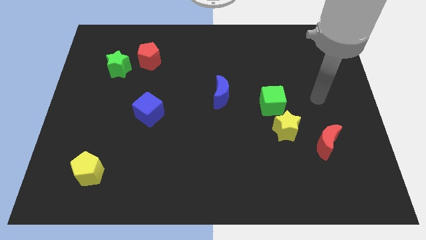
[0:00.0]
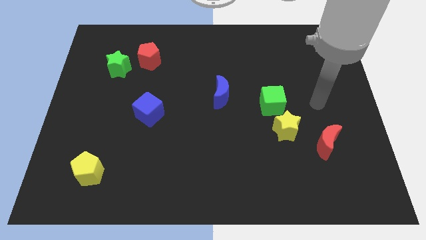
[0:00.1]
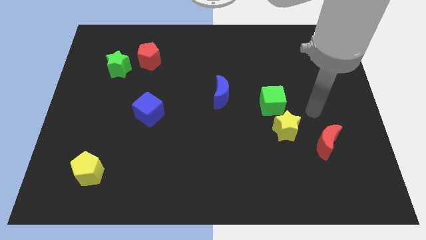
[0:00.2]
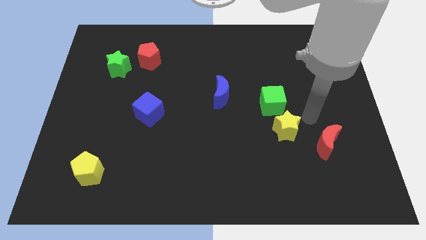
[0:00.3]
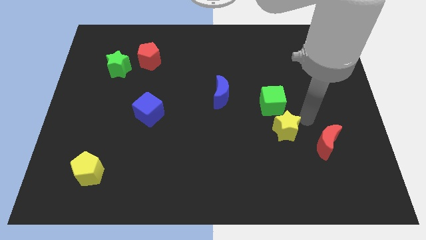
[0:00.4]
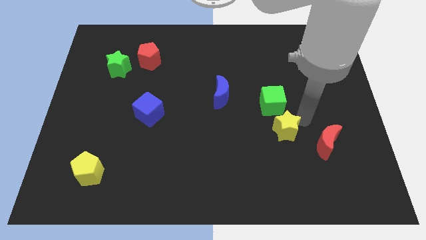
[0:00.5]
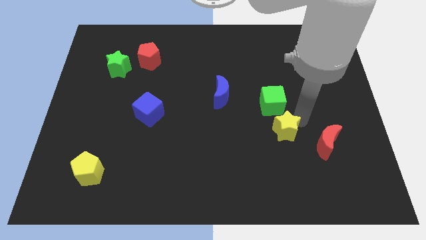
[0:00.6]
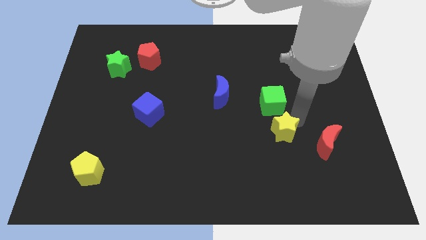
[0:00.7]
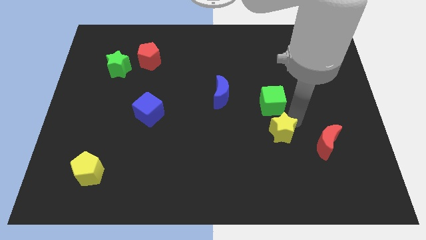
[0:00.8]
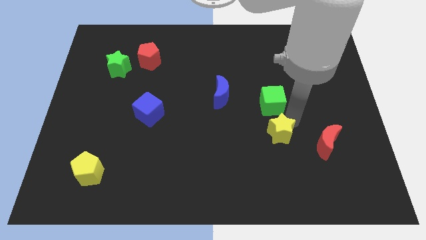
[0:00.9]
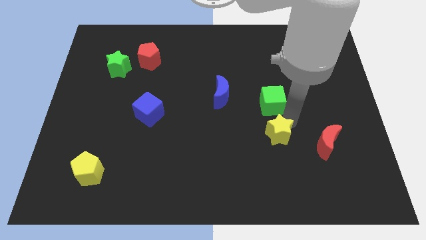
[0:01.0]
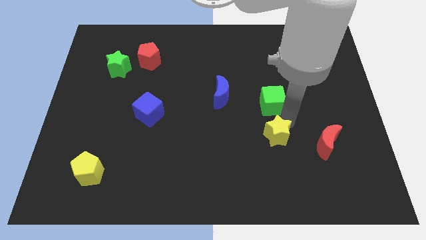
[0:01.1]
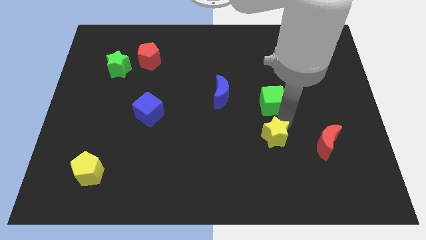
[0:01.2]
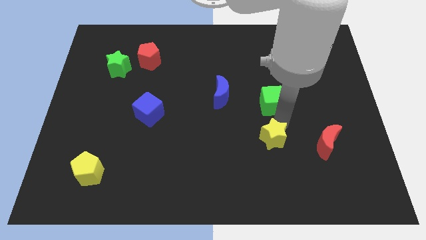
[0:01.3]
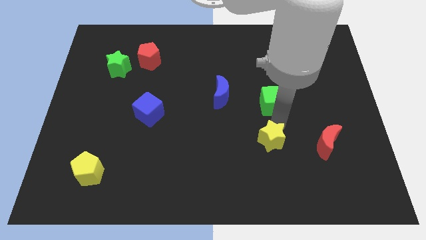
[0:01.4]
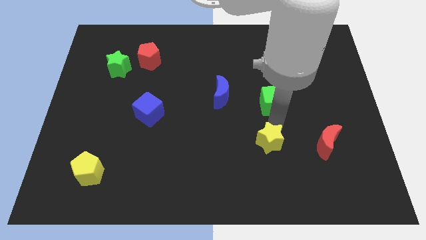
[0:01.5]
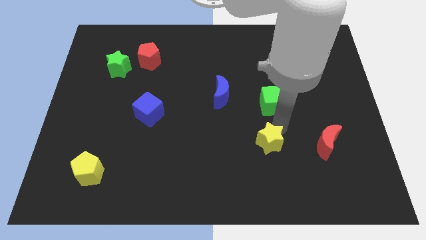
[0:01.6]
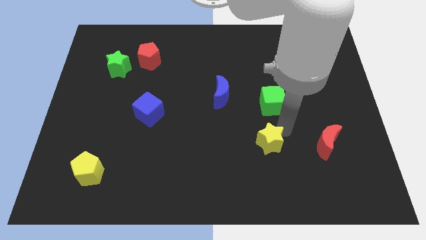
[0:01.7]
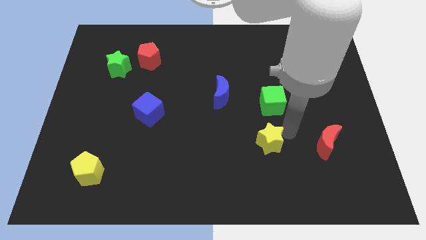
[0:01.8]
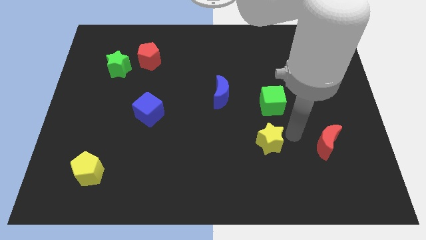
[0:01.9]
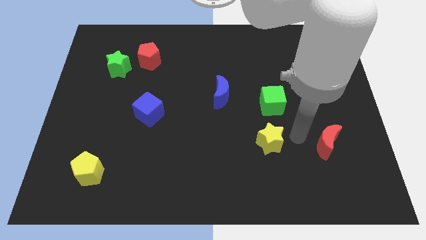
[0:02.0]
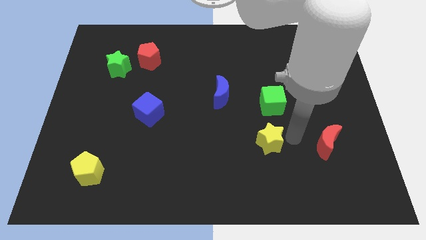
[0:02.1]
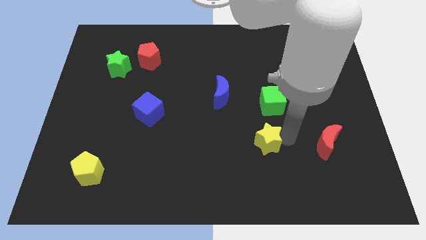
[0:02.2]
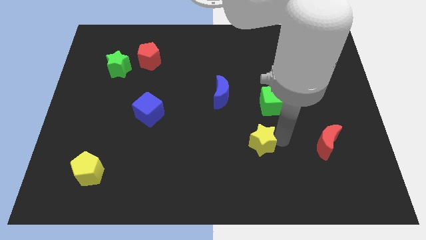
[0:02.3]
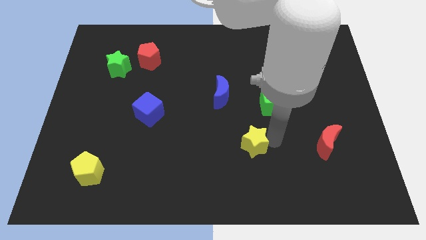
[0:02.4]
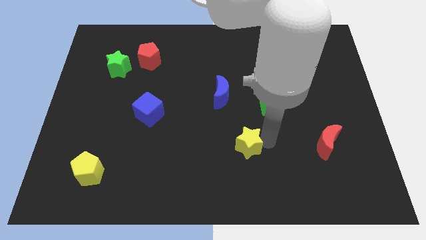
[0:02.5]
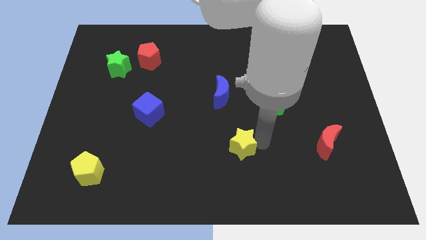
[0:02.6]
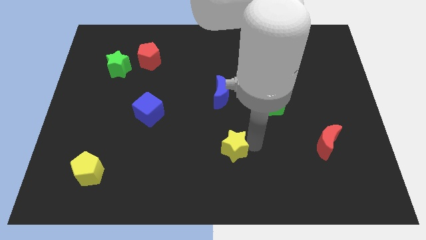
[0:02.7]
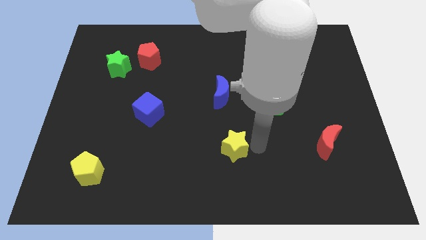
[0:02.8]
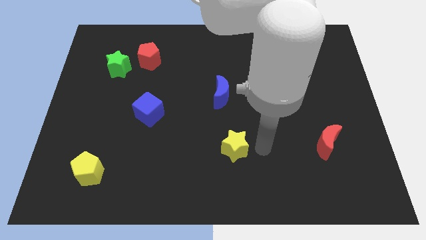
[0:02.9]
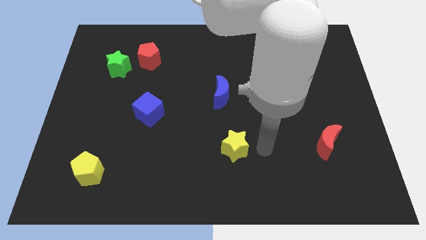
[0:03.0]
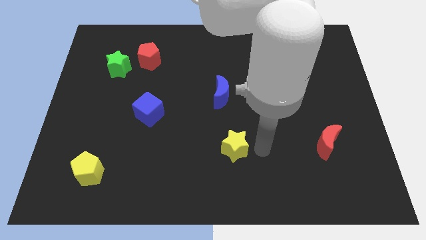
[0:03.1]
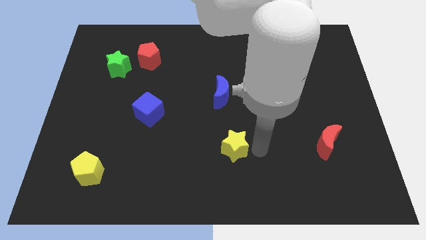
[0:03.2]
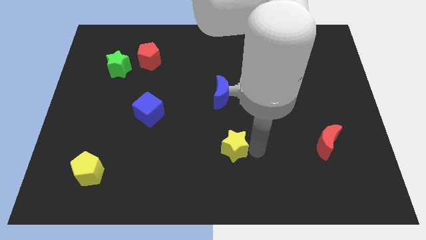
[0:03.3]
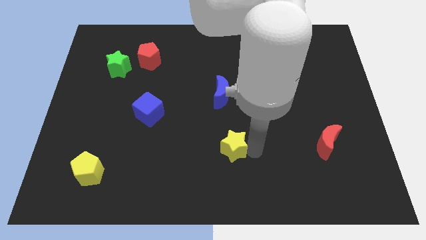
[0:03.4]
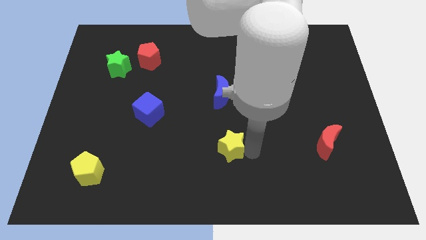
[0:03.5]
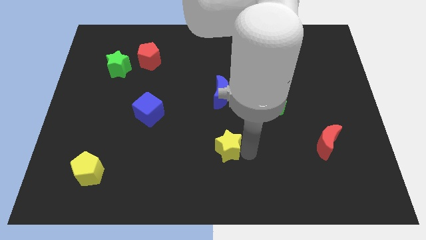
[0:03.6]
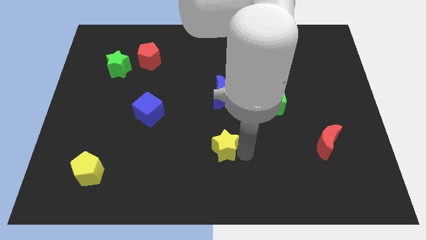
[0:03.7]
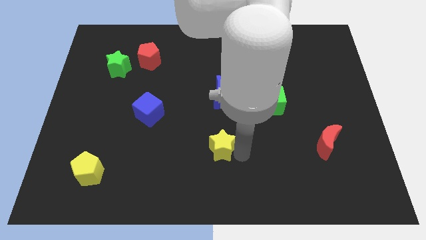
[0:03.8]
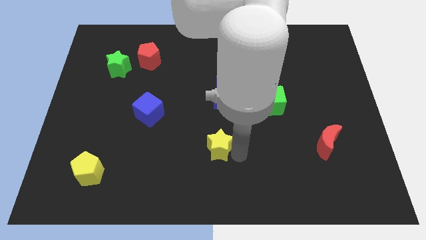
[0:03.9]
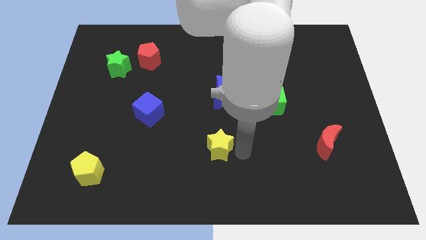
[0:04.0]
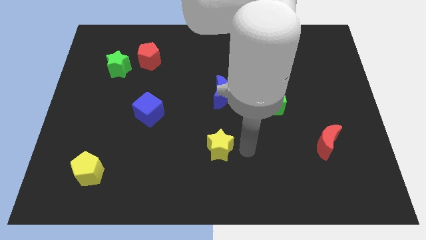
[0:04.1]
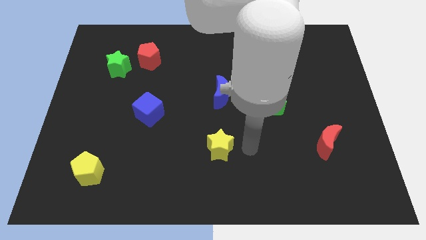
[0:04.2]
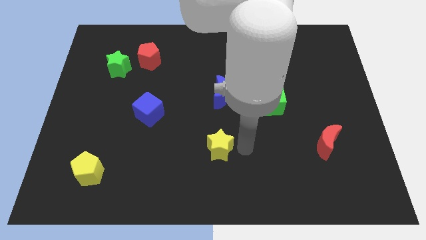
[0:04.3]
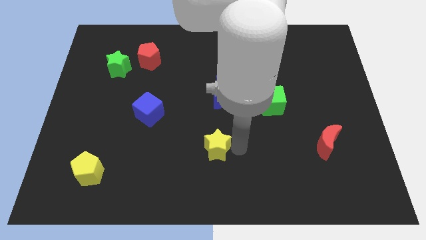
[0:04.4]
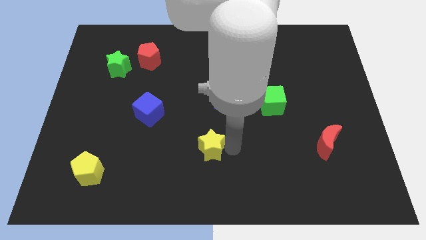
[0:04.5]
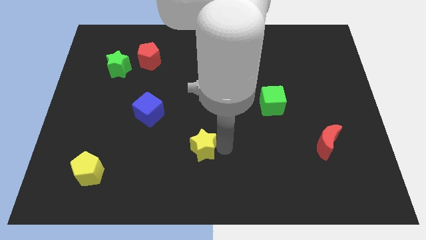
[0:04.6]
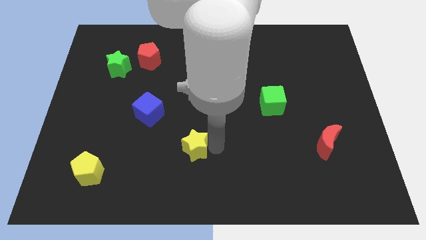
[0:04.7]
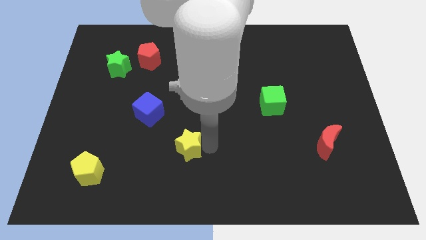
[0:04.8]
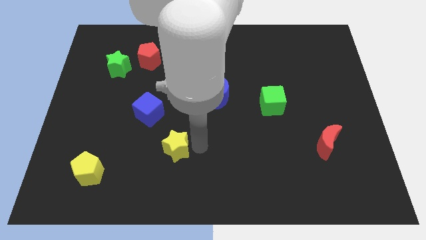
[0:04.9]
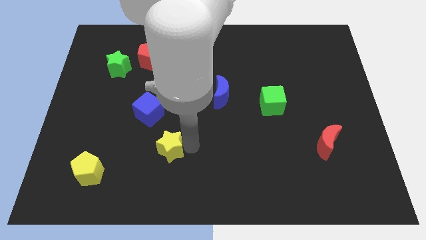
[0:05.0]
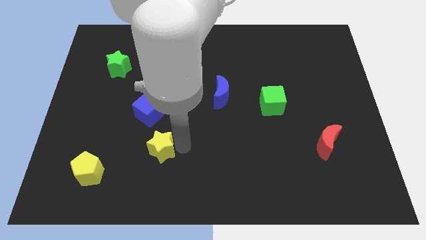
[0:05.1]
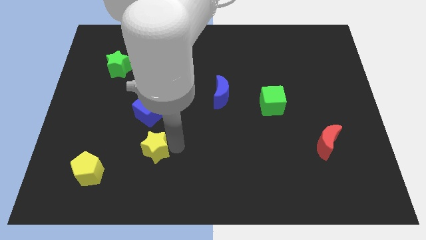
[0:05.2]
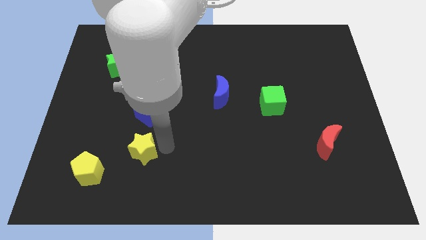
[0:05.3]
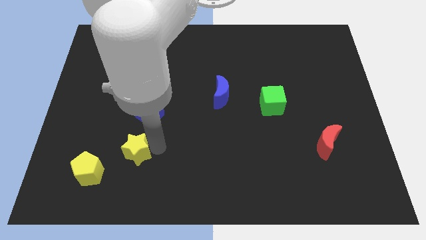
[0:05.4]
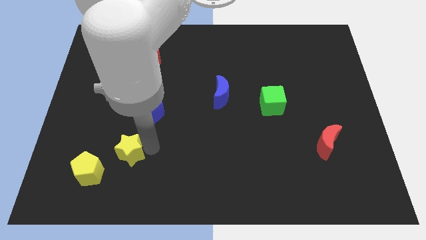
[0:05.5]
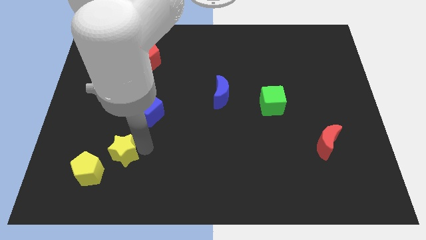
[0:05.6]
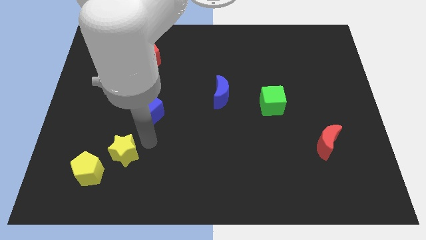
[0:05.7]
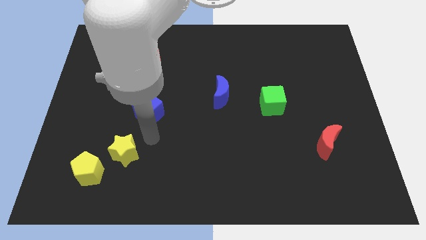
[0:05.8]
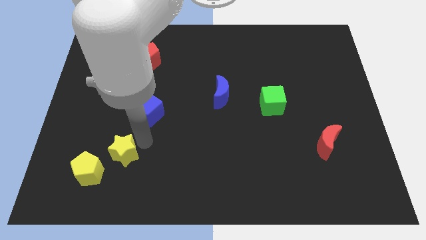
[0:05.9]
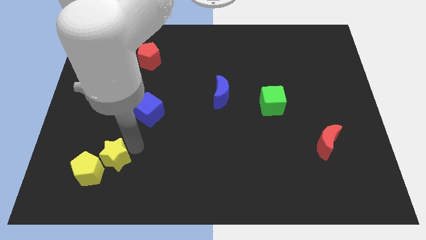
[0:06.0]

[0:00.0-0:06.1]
move the yellow star close to the yellow pentagon

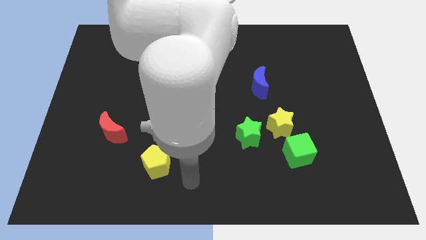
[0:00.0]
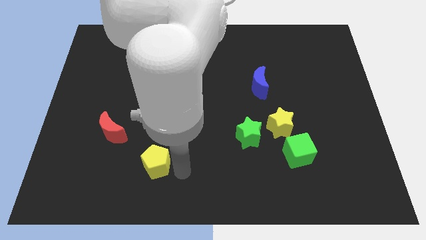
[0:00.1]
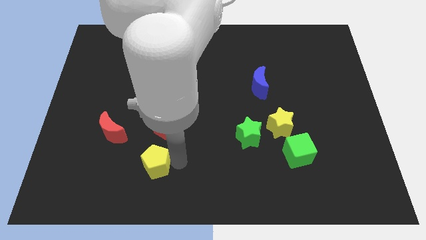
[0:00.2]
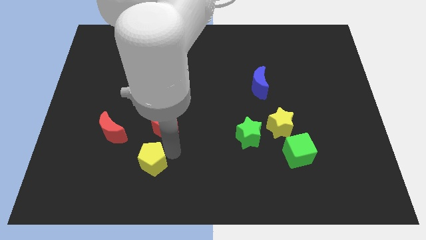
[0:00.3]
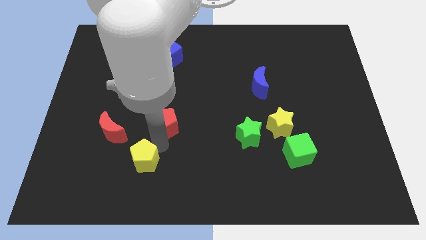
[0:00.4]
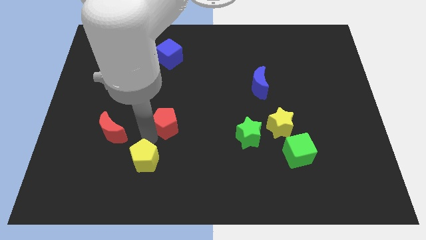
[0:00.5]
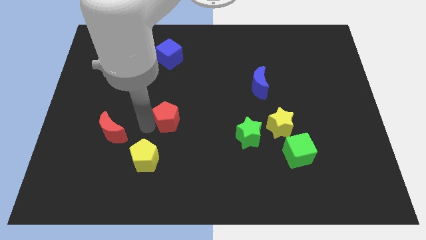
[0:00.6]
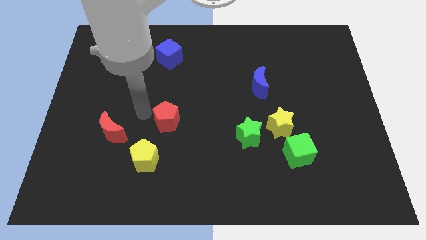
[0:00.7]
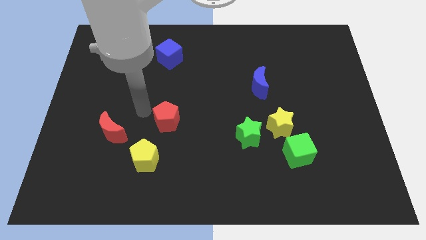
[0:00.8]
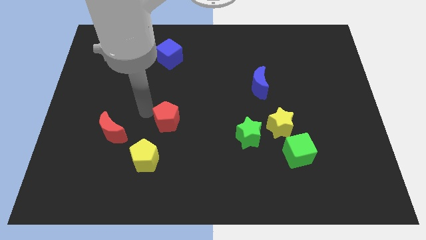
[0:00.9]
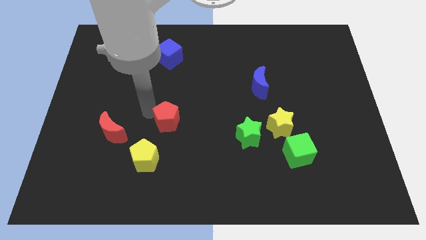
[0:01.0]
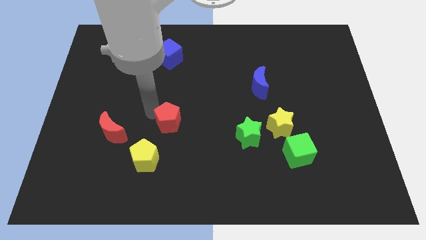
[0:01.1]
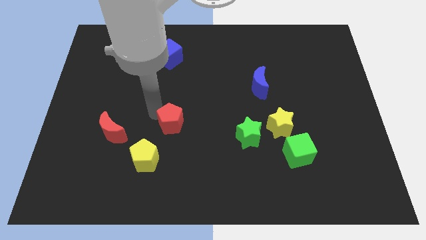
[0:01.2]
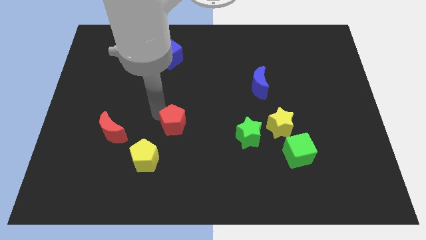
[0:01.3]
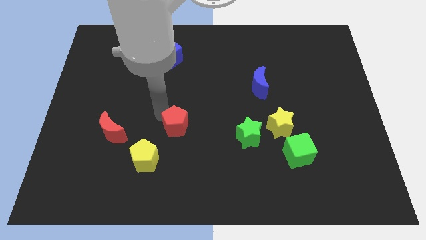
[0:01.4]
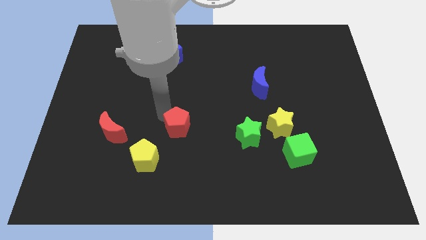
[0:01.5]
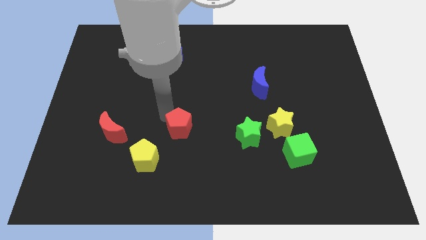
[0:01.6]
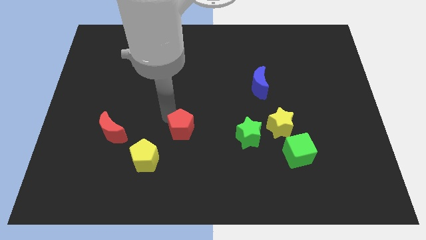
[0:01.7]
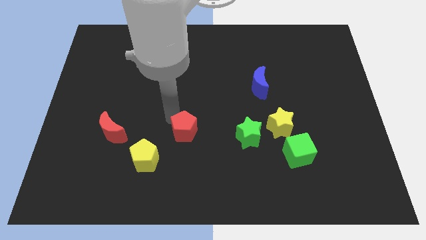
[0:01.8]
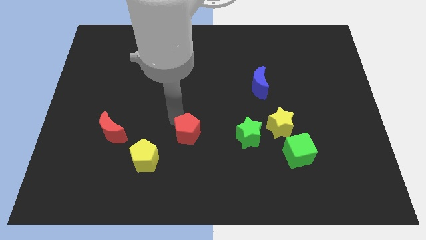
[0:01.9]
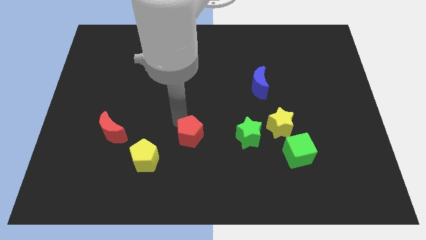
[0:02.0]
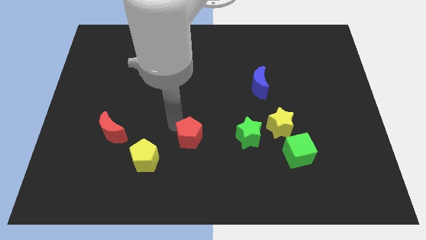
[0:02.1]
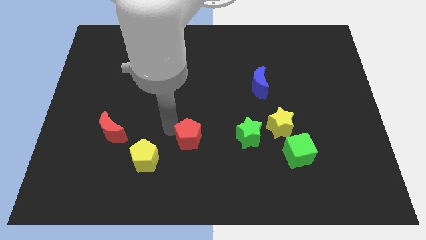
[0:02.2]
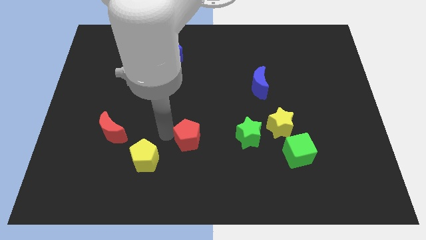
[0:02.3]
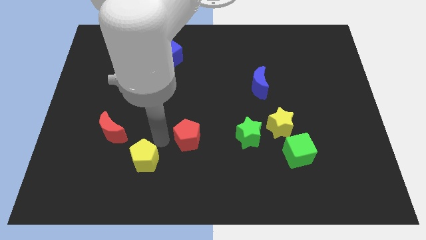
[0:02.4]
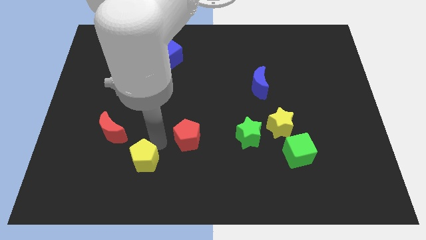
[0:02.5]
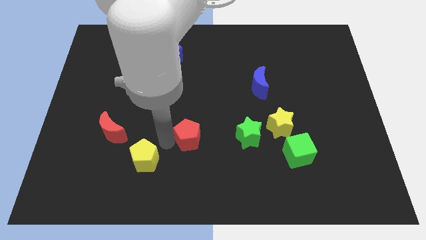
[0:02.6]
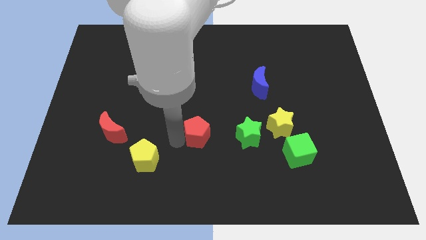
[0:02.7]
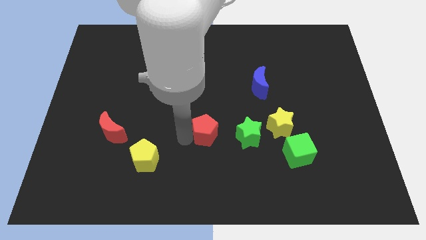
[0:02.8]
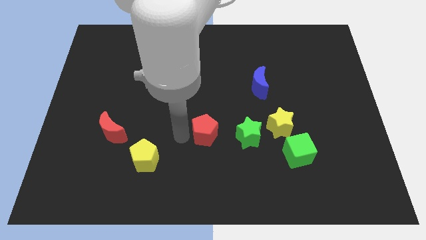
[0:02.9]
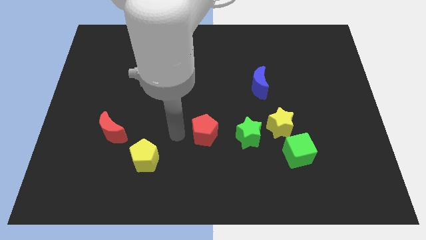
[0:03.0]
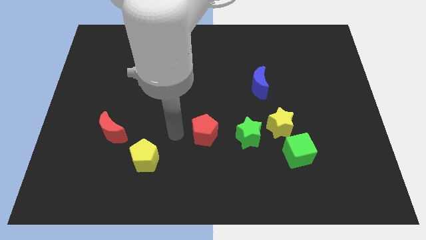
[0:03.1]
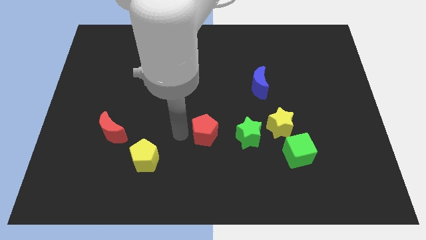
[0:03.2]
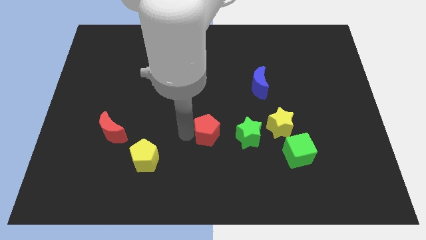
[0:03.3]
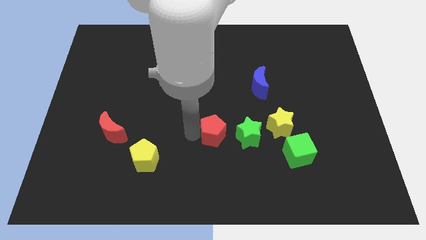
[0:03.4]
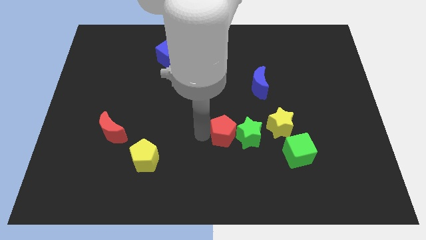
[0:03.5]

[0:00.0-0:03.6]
push the red pentagon towards the green star
